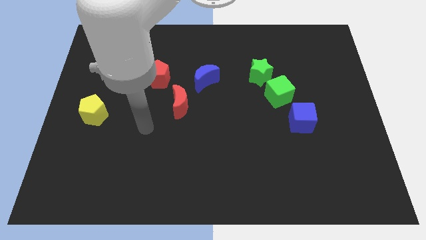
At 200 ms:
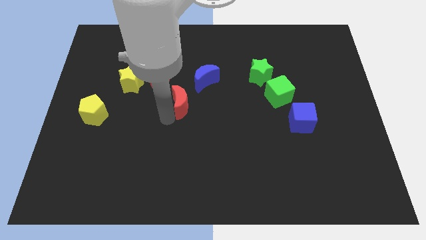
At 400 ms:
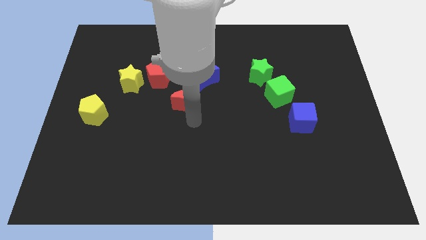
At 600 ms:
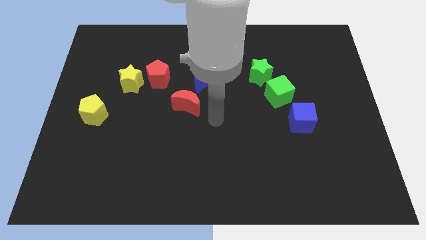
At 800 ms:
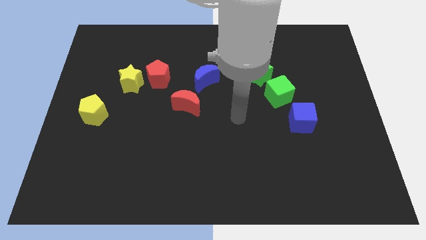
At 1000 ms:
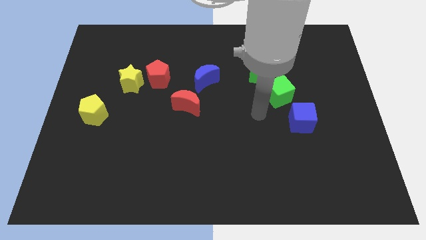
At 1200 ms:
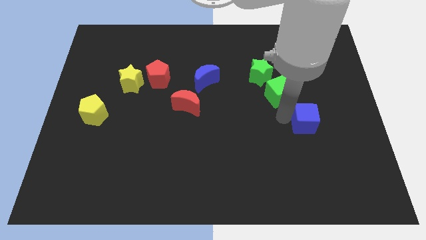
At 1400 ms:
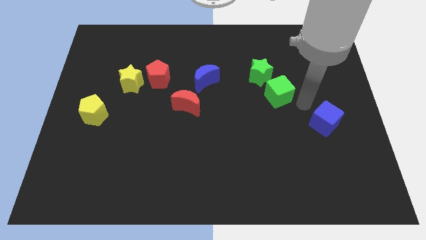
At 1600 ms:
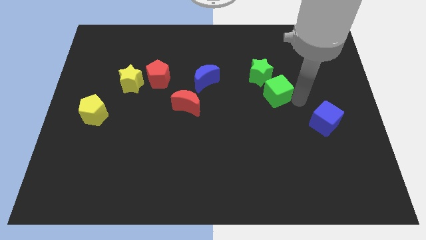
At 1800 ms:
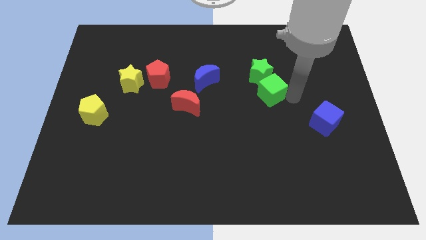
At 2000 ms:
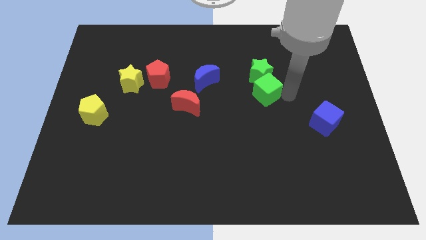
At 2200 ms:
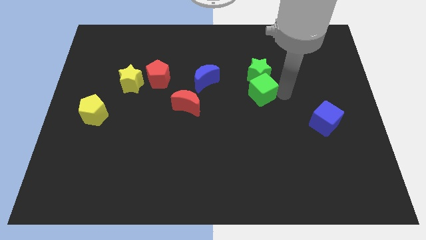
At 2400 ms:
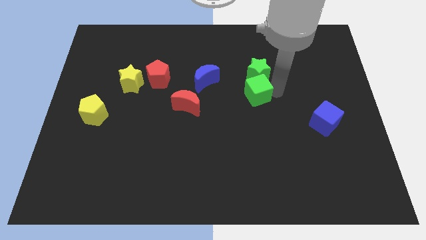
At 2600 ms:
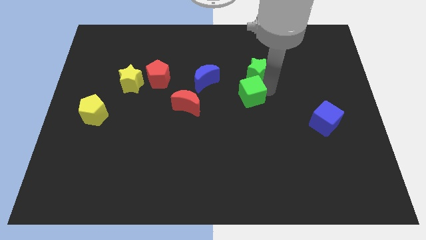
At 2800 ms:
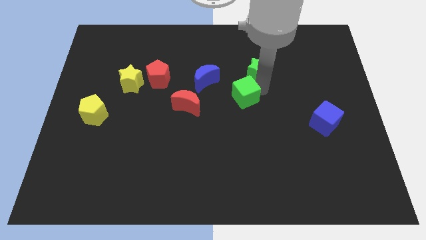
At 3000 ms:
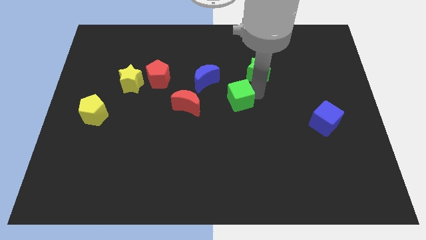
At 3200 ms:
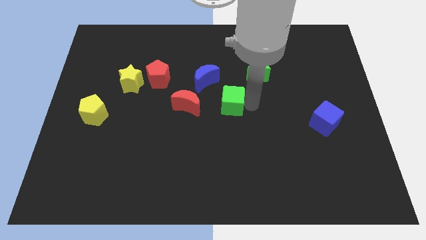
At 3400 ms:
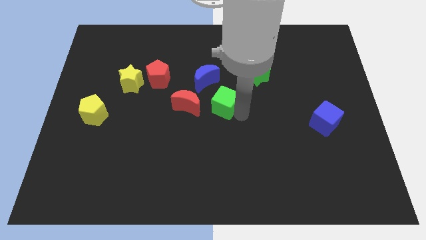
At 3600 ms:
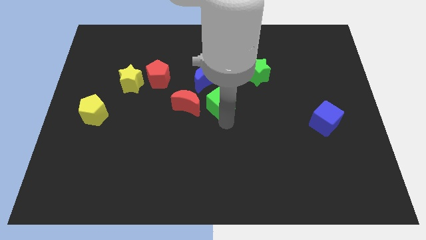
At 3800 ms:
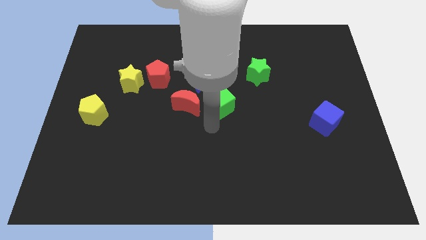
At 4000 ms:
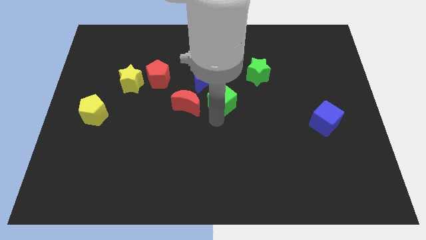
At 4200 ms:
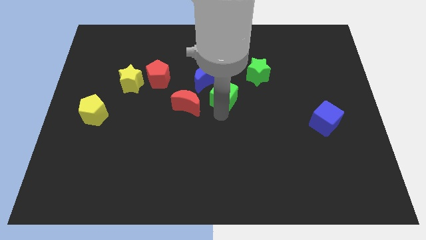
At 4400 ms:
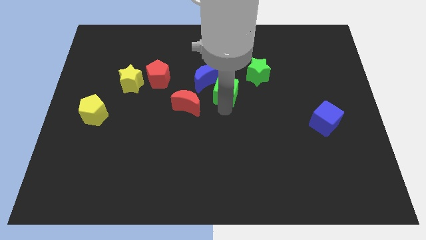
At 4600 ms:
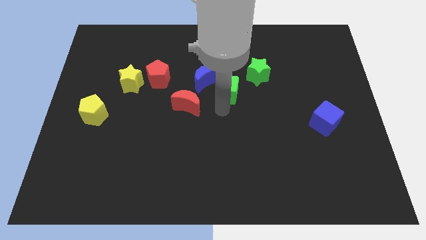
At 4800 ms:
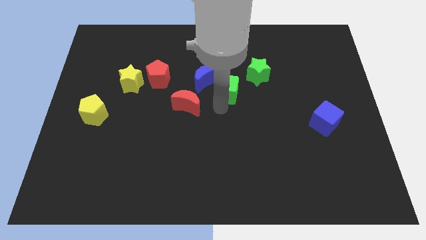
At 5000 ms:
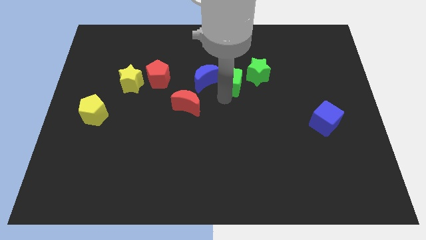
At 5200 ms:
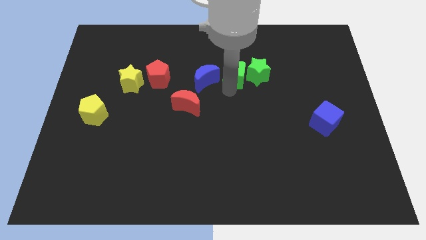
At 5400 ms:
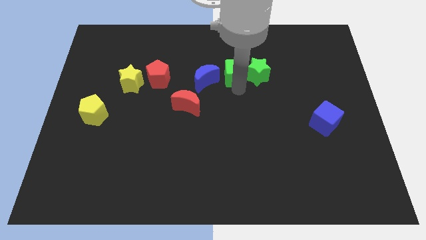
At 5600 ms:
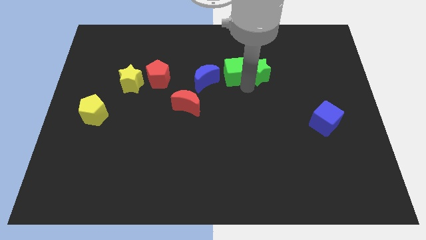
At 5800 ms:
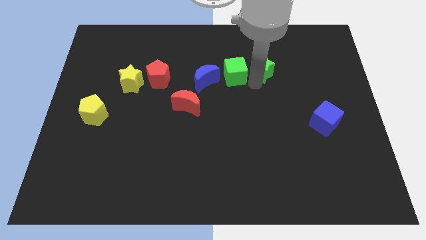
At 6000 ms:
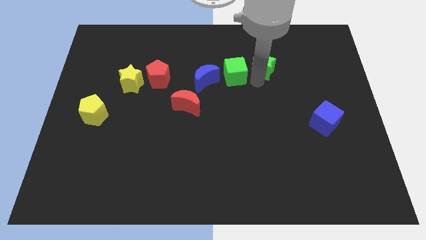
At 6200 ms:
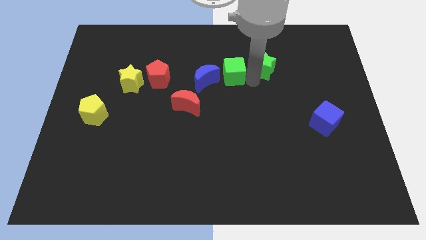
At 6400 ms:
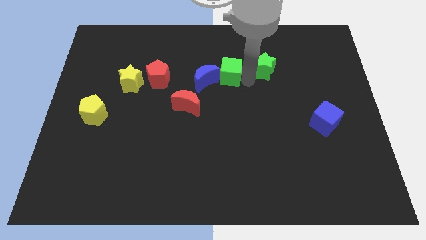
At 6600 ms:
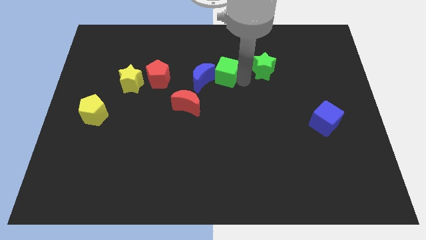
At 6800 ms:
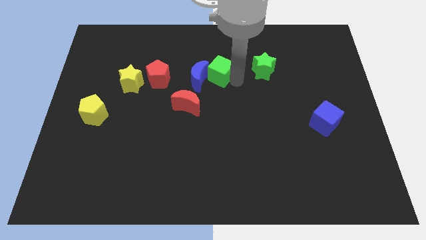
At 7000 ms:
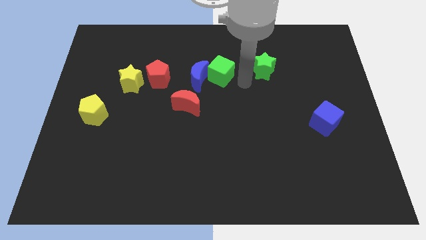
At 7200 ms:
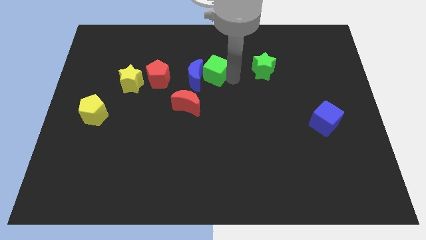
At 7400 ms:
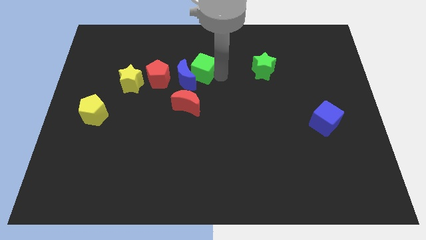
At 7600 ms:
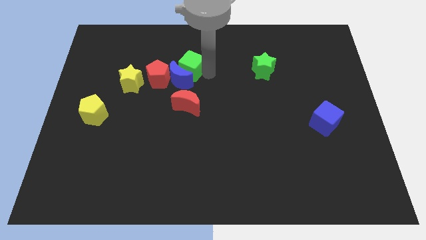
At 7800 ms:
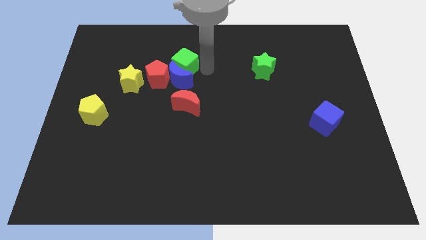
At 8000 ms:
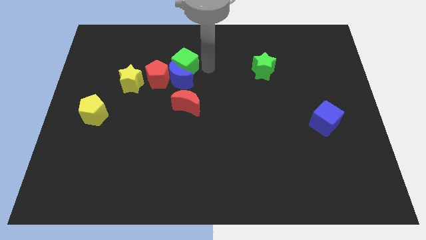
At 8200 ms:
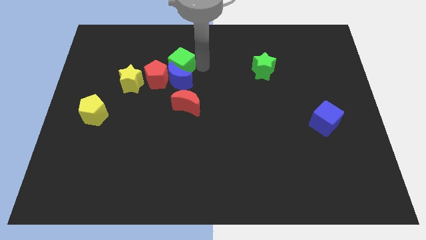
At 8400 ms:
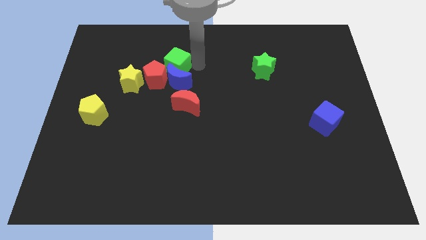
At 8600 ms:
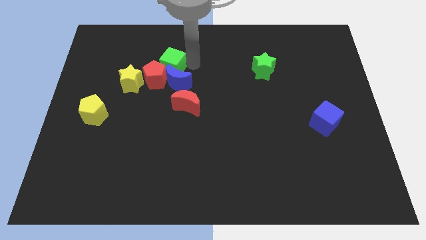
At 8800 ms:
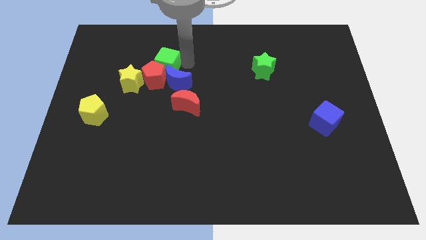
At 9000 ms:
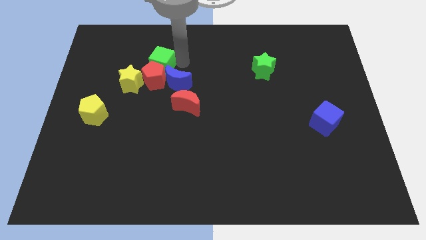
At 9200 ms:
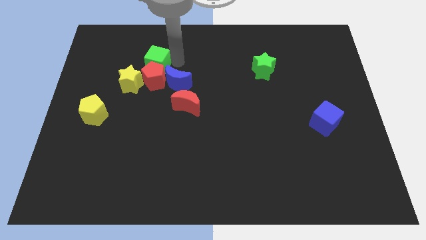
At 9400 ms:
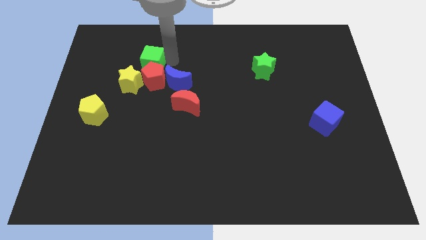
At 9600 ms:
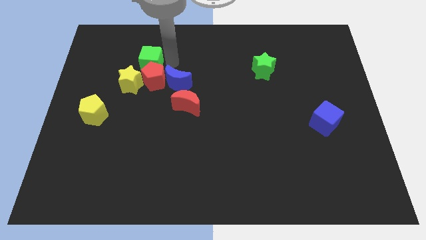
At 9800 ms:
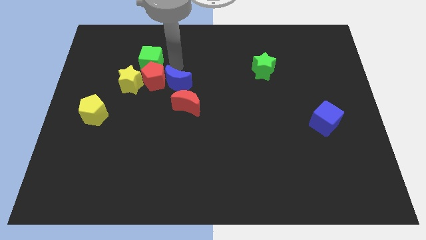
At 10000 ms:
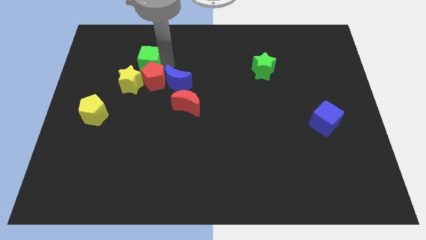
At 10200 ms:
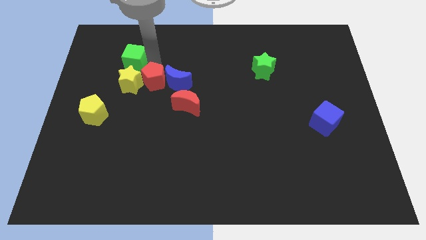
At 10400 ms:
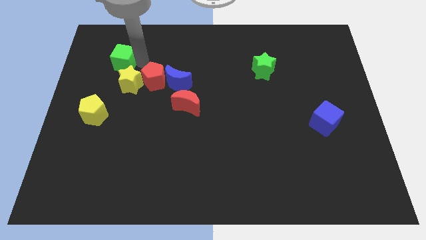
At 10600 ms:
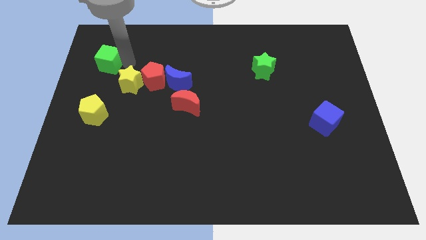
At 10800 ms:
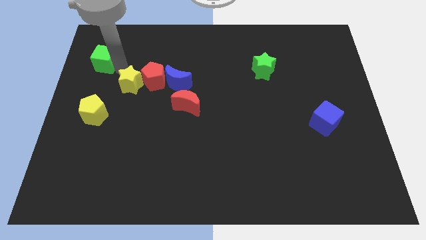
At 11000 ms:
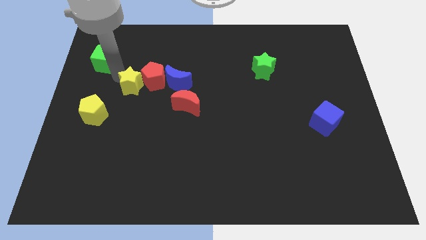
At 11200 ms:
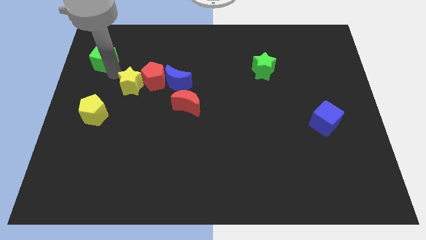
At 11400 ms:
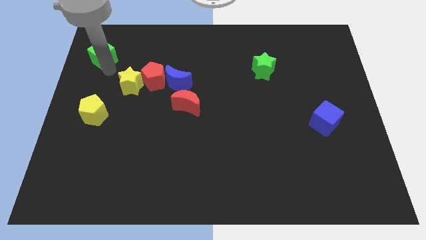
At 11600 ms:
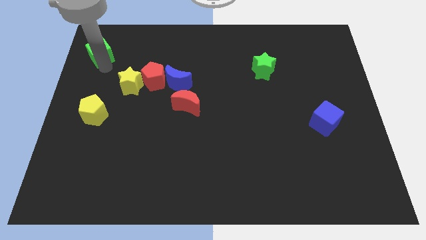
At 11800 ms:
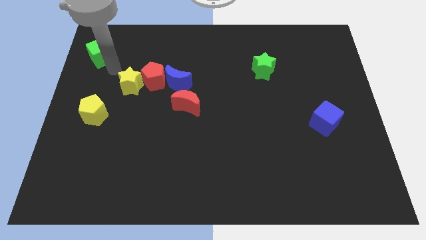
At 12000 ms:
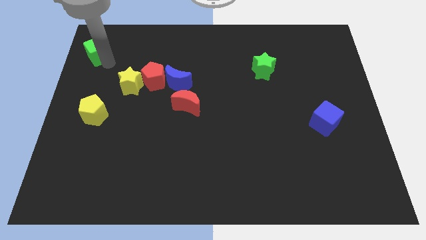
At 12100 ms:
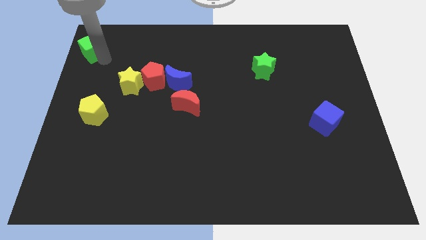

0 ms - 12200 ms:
put the green cube to the top left

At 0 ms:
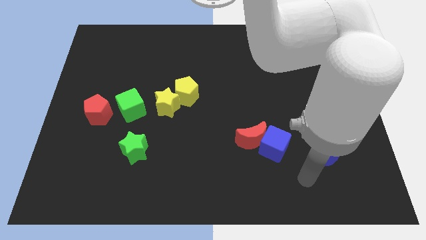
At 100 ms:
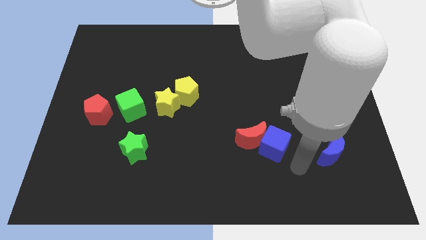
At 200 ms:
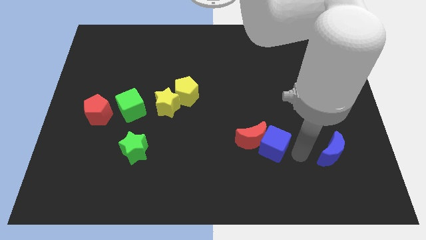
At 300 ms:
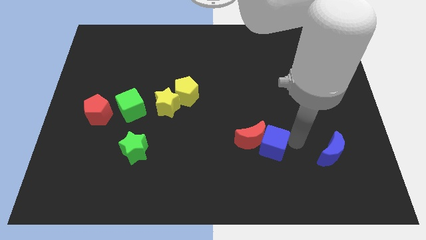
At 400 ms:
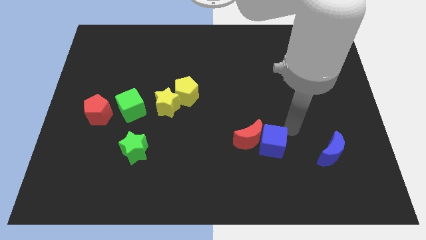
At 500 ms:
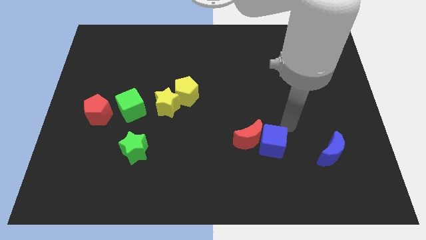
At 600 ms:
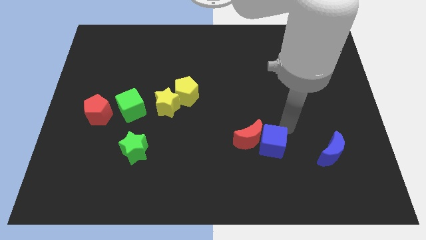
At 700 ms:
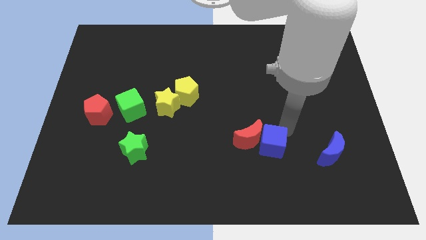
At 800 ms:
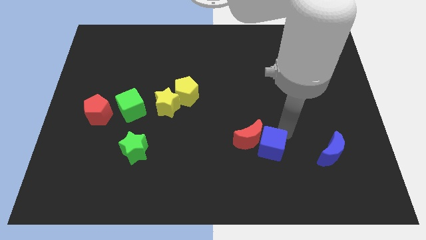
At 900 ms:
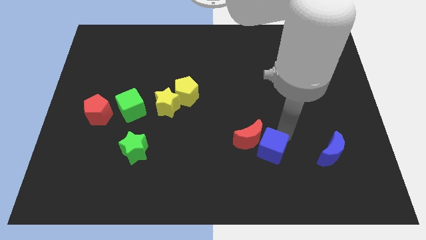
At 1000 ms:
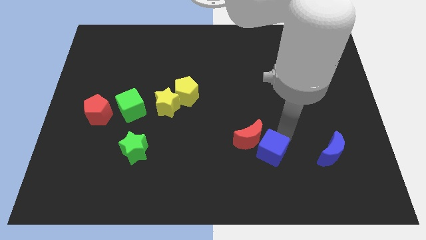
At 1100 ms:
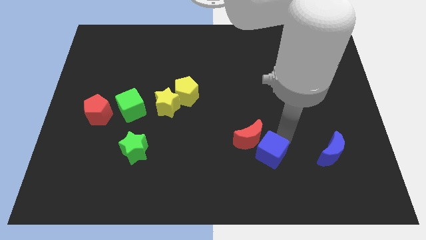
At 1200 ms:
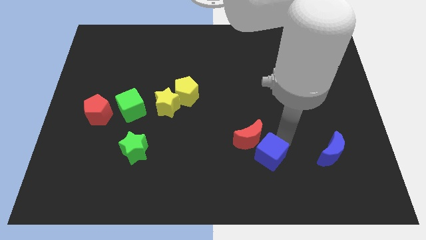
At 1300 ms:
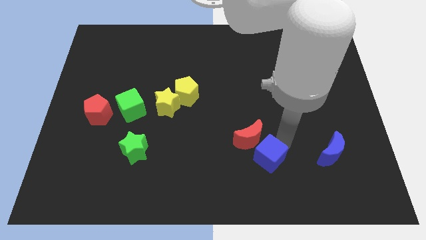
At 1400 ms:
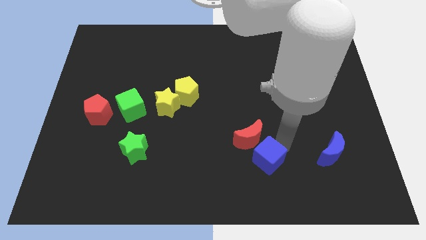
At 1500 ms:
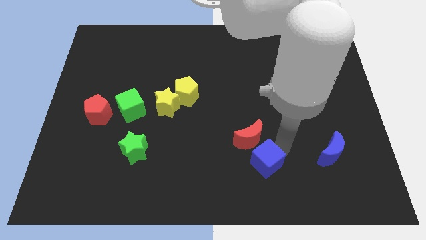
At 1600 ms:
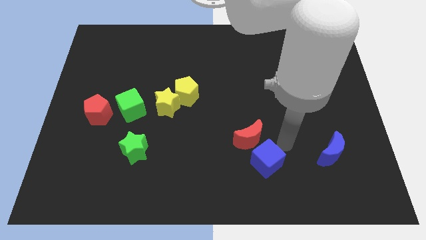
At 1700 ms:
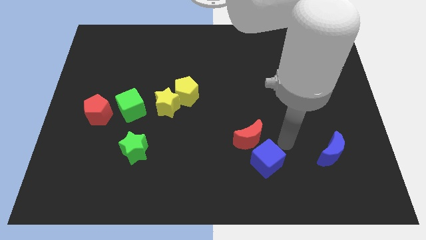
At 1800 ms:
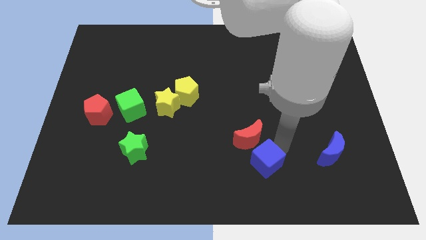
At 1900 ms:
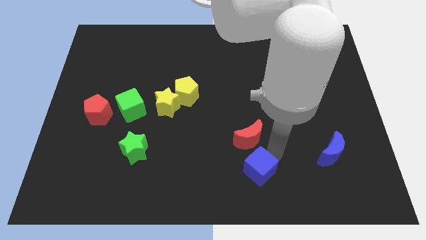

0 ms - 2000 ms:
put the blue cube to the bottom
